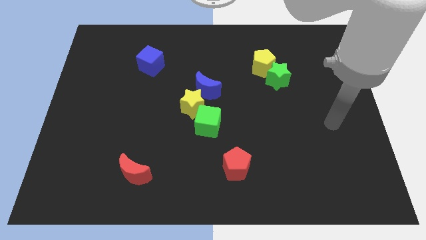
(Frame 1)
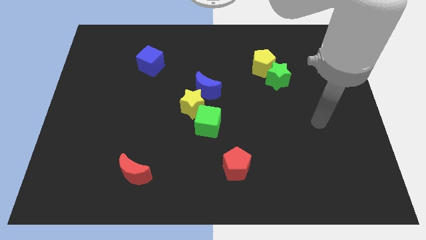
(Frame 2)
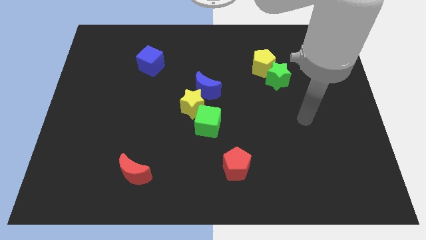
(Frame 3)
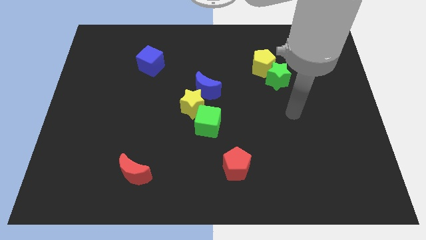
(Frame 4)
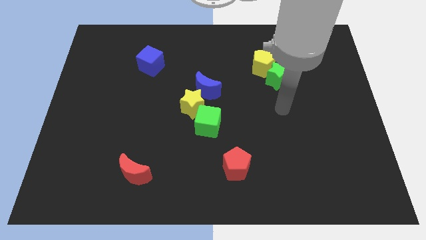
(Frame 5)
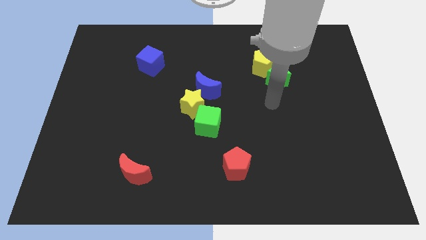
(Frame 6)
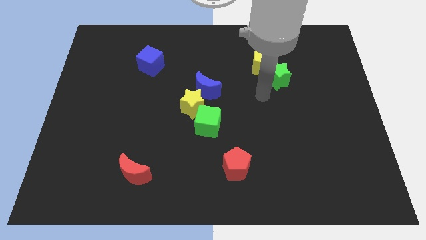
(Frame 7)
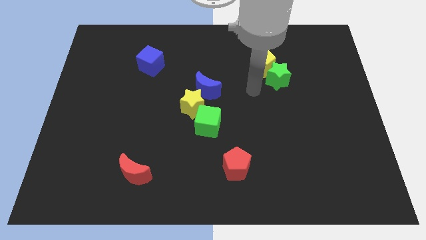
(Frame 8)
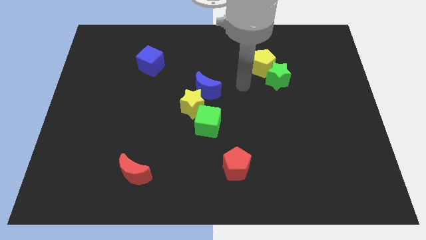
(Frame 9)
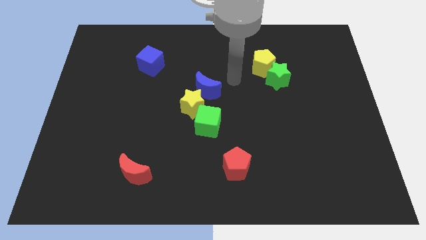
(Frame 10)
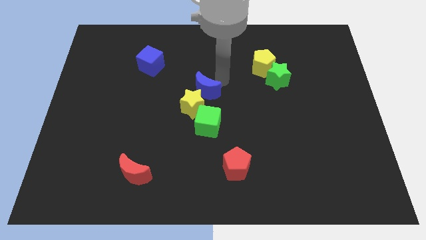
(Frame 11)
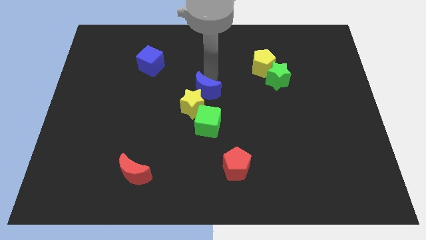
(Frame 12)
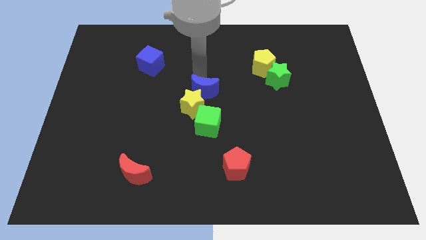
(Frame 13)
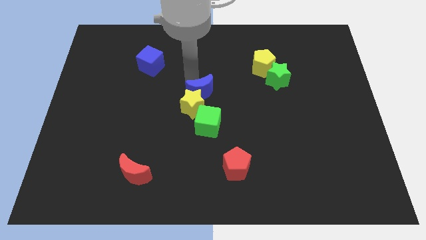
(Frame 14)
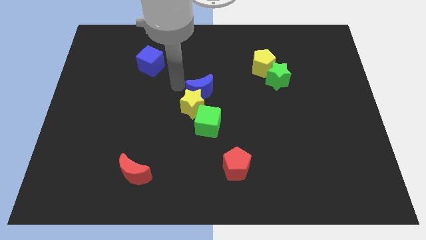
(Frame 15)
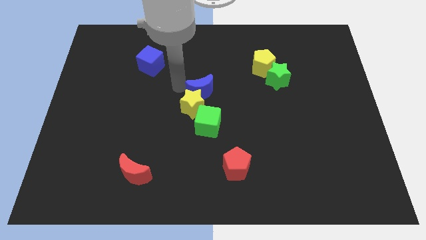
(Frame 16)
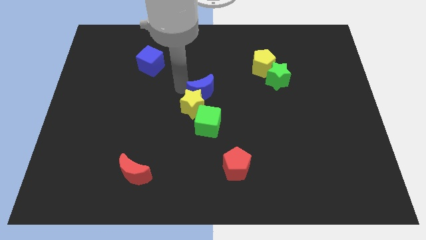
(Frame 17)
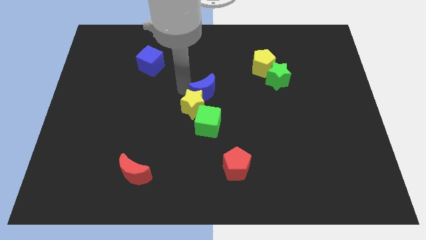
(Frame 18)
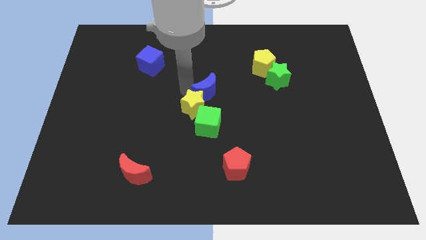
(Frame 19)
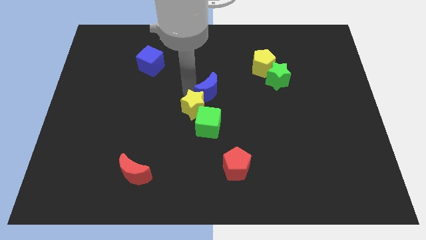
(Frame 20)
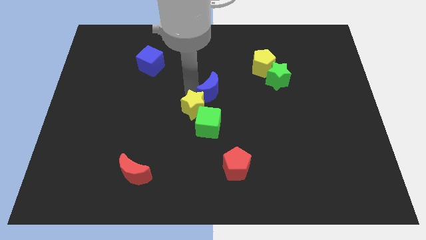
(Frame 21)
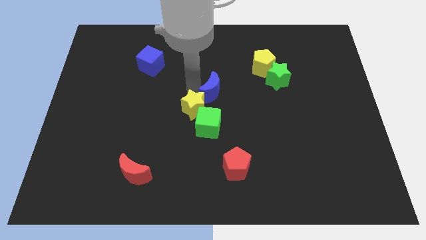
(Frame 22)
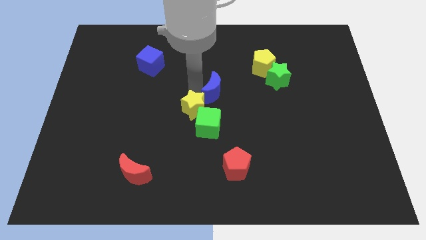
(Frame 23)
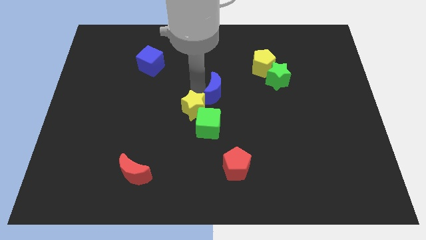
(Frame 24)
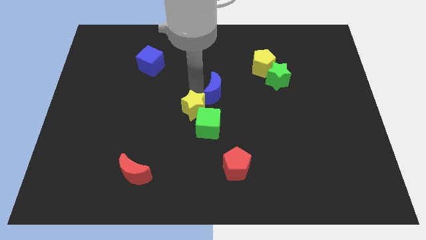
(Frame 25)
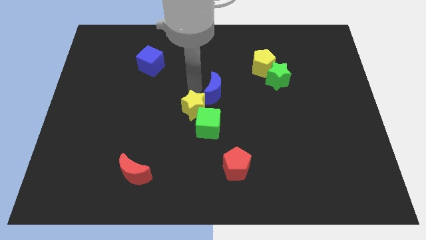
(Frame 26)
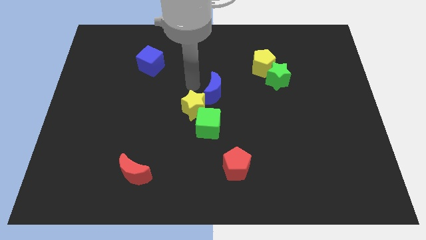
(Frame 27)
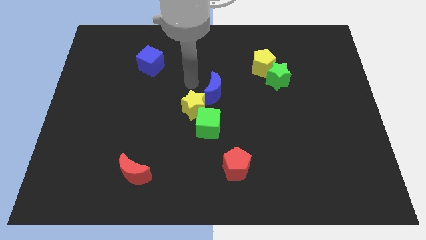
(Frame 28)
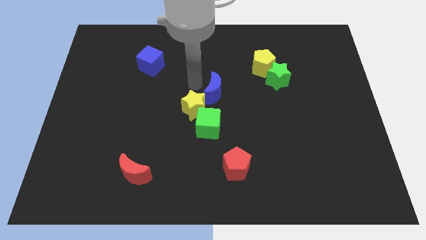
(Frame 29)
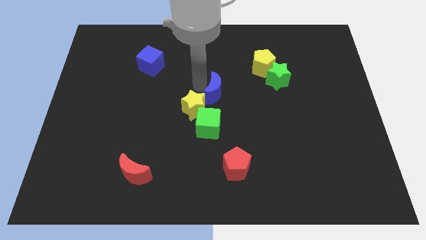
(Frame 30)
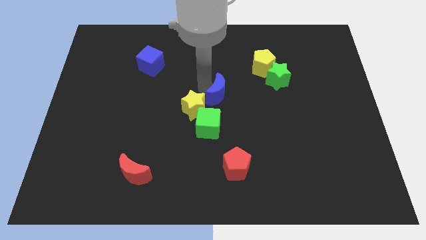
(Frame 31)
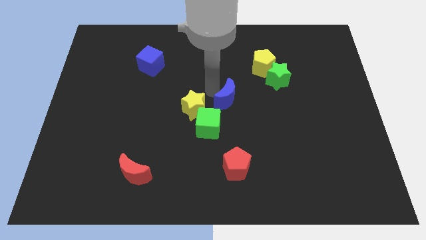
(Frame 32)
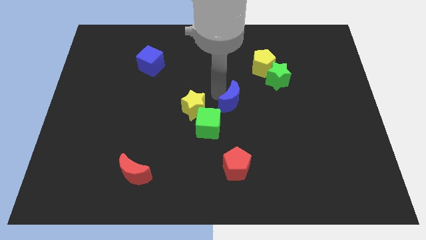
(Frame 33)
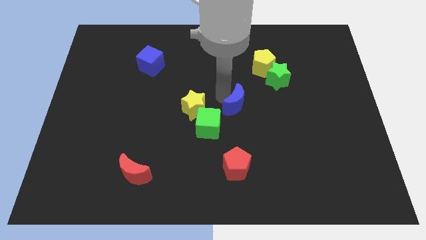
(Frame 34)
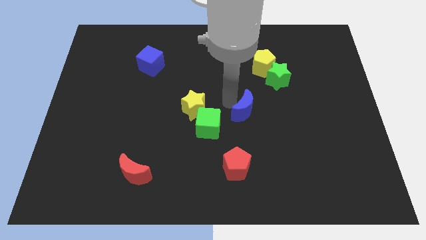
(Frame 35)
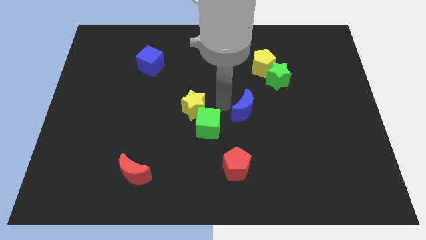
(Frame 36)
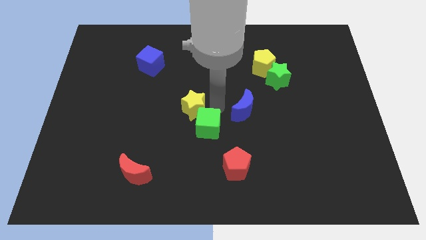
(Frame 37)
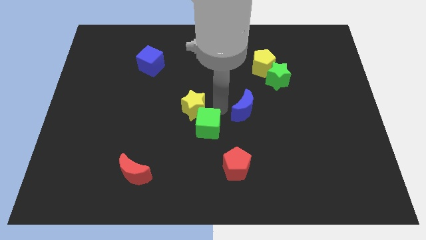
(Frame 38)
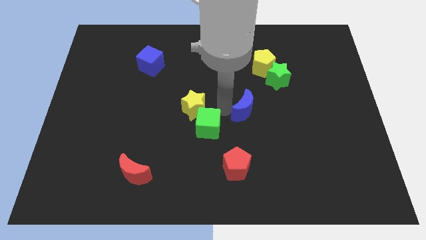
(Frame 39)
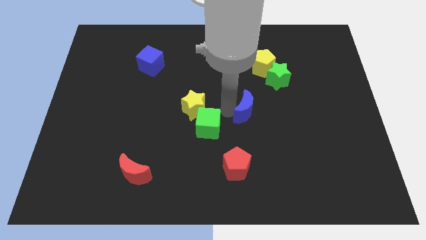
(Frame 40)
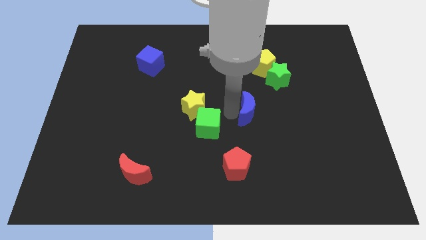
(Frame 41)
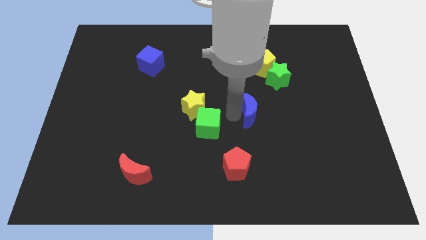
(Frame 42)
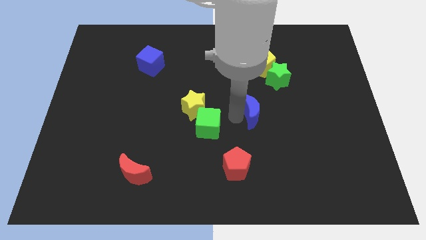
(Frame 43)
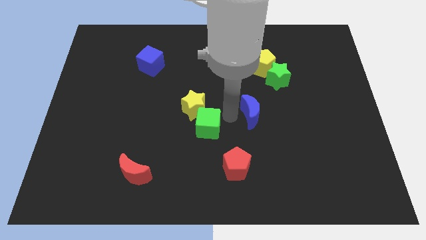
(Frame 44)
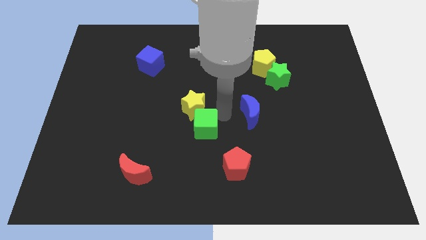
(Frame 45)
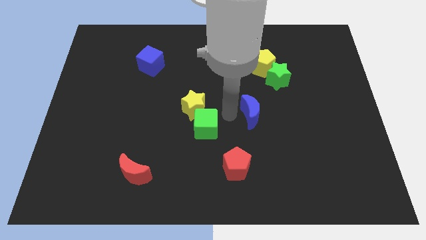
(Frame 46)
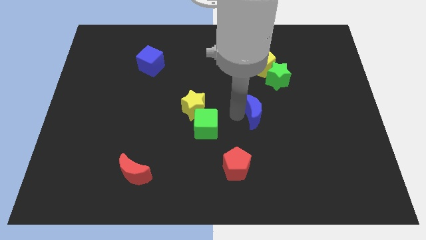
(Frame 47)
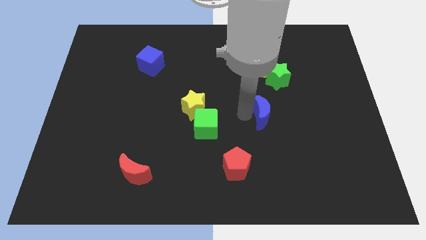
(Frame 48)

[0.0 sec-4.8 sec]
slide the blue moon to the bottom side of the green star

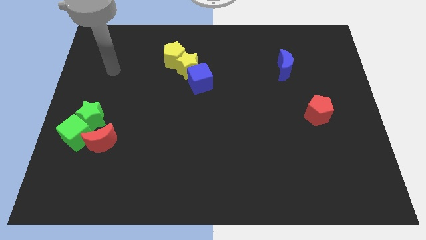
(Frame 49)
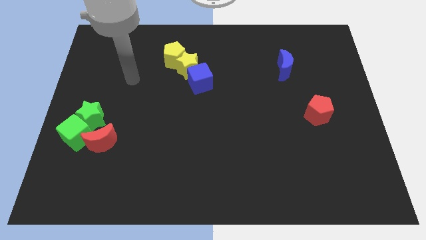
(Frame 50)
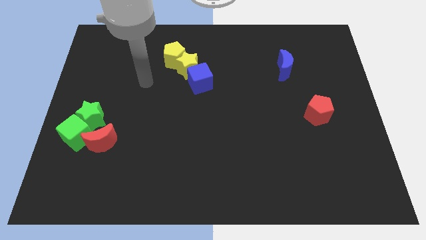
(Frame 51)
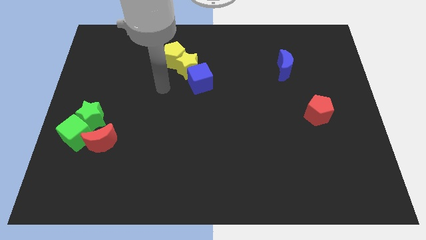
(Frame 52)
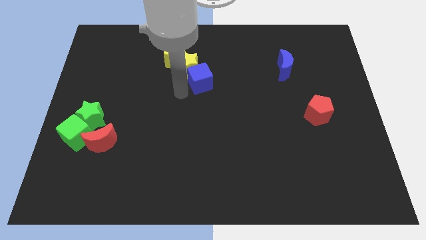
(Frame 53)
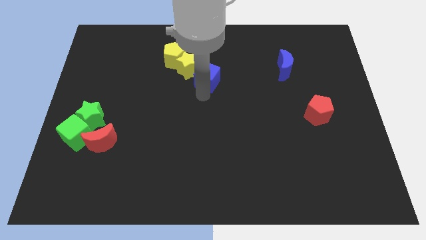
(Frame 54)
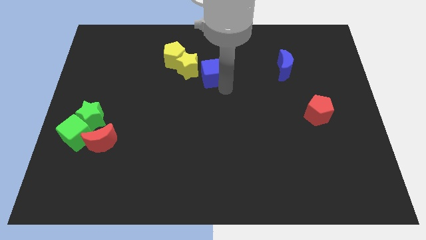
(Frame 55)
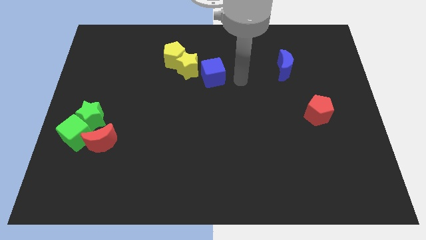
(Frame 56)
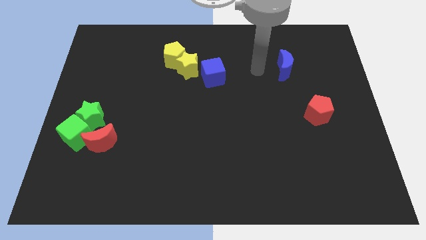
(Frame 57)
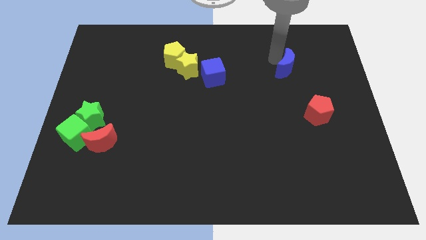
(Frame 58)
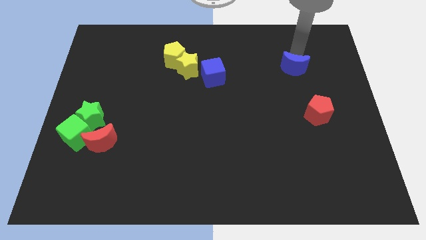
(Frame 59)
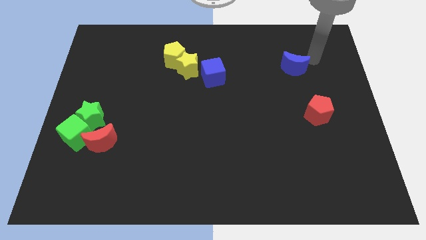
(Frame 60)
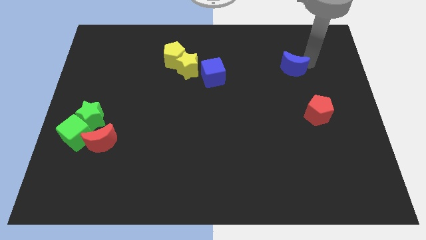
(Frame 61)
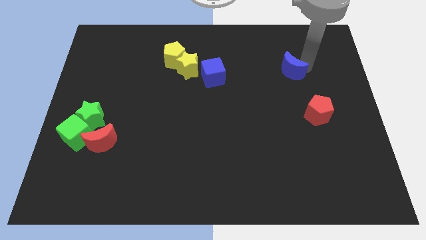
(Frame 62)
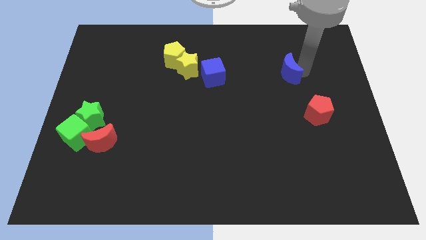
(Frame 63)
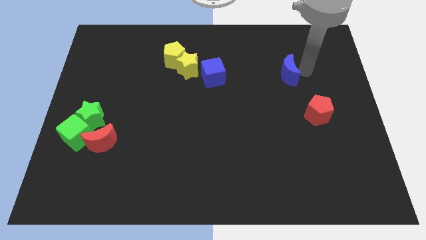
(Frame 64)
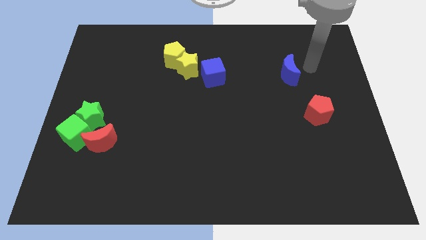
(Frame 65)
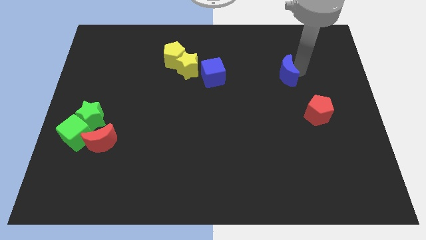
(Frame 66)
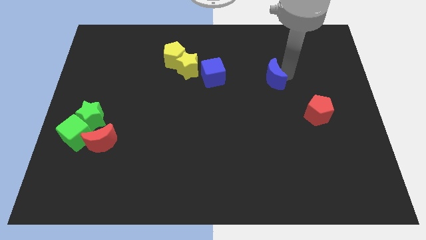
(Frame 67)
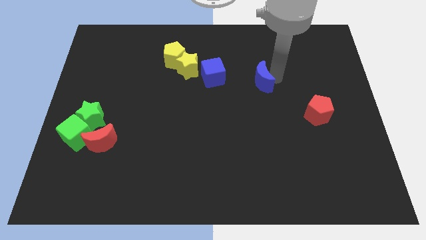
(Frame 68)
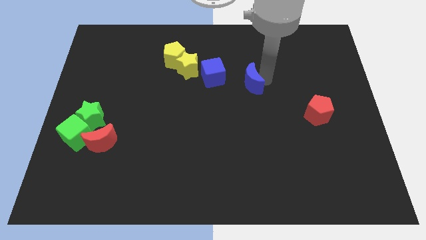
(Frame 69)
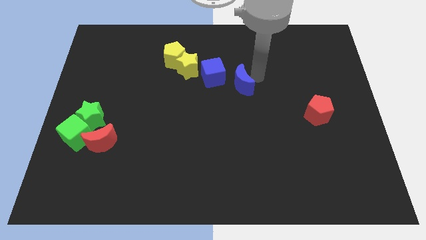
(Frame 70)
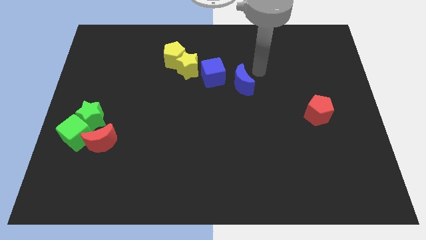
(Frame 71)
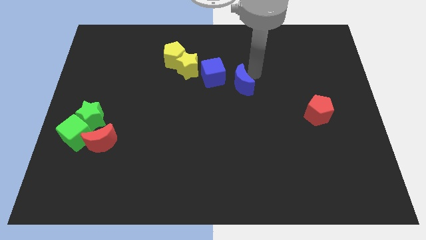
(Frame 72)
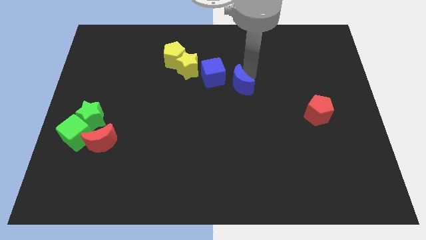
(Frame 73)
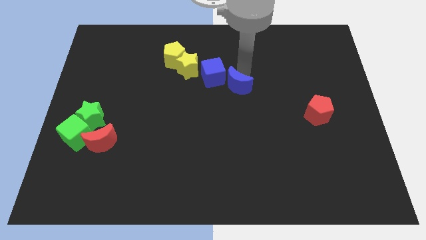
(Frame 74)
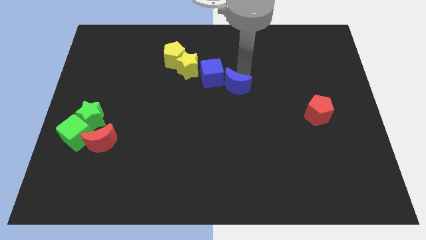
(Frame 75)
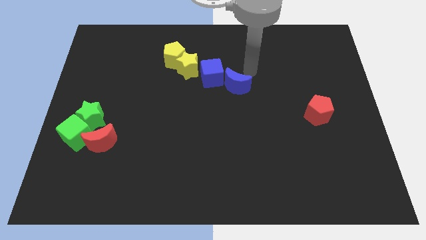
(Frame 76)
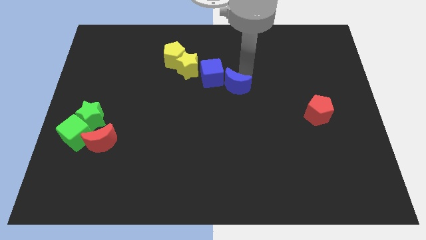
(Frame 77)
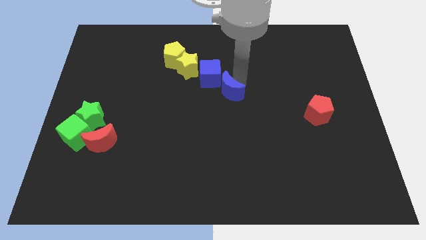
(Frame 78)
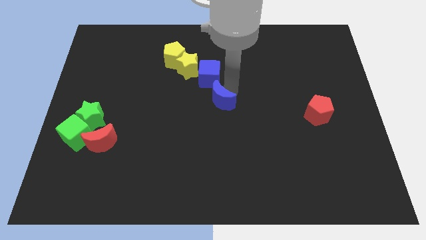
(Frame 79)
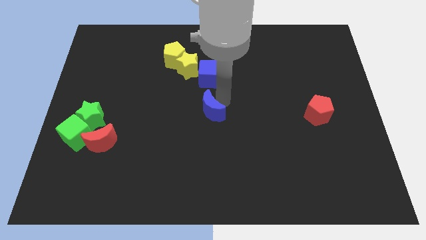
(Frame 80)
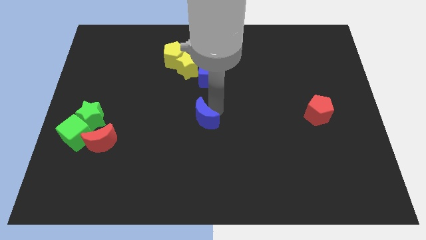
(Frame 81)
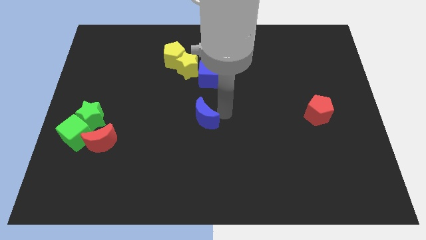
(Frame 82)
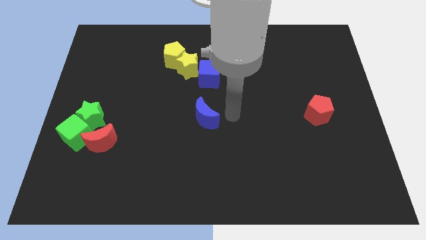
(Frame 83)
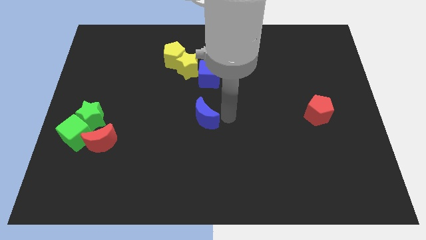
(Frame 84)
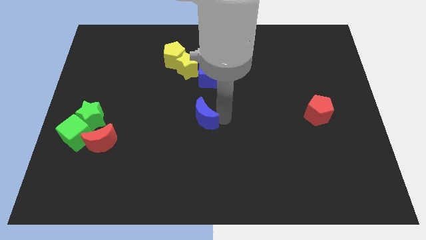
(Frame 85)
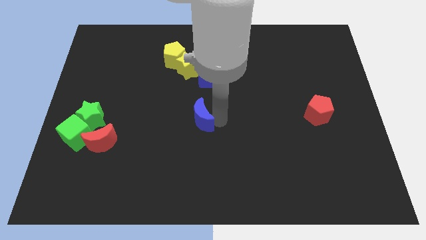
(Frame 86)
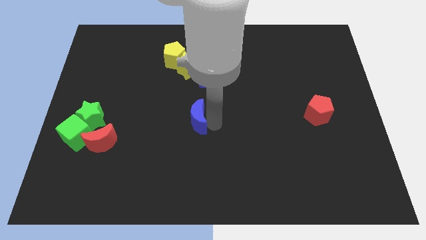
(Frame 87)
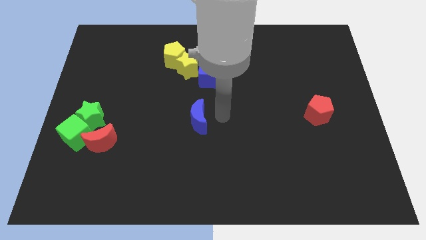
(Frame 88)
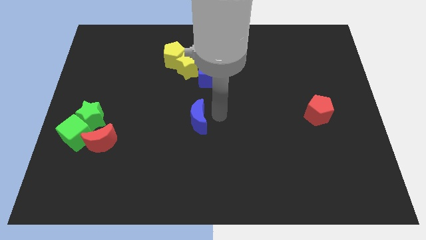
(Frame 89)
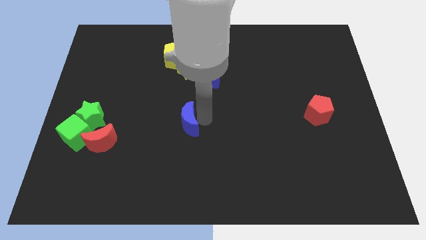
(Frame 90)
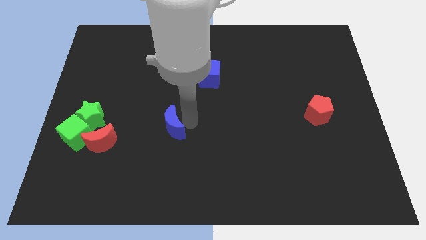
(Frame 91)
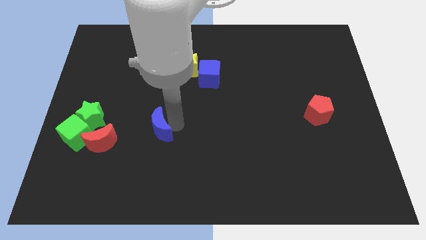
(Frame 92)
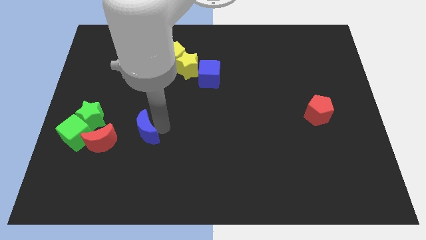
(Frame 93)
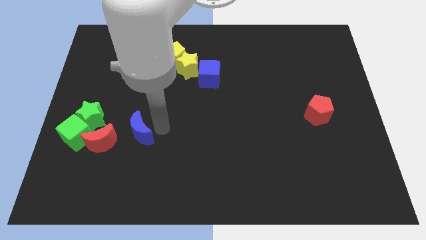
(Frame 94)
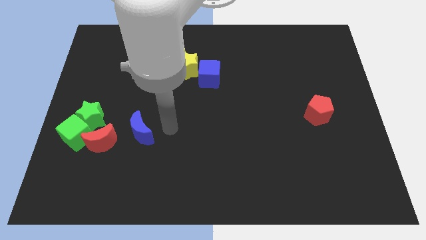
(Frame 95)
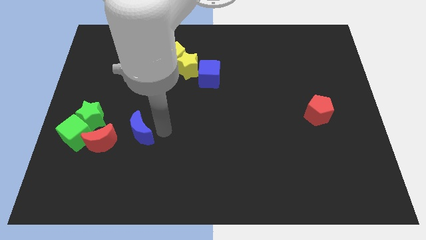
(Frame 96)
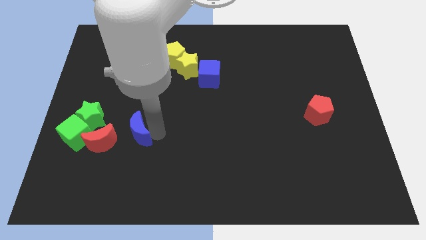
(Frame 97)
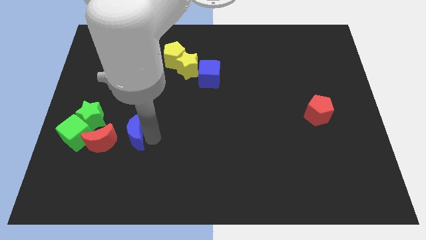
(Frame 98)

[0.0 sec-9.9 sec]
slide the blue moon to the bottom right side of the green star
